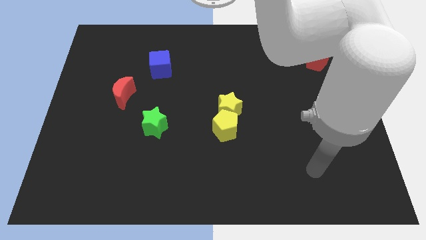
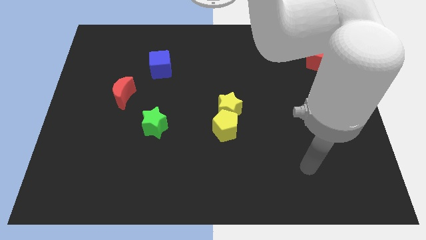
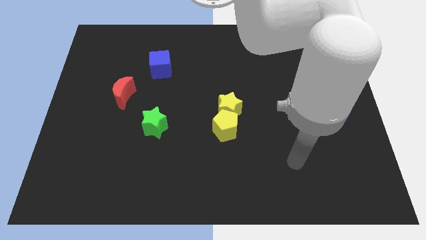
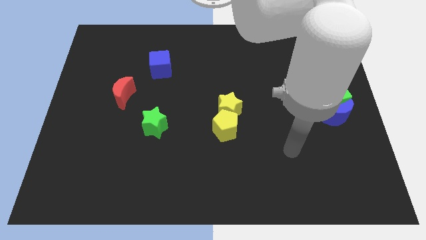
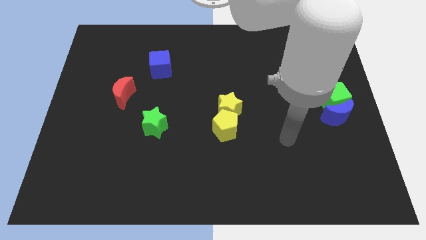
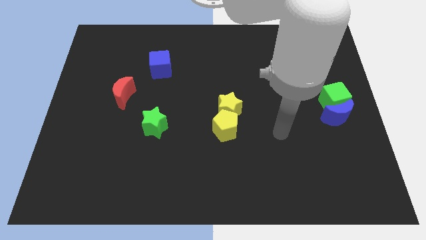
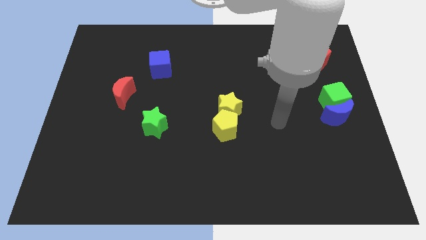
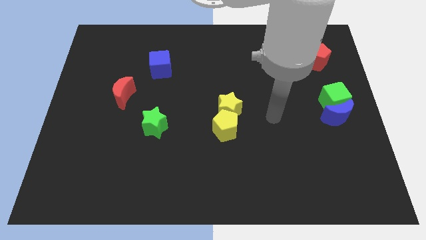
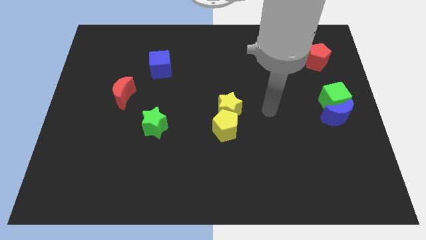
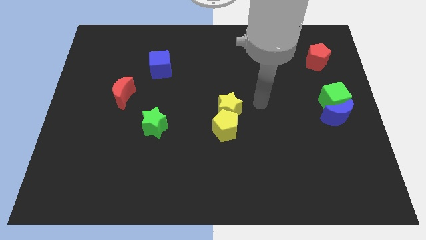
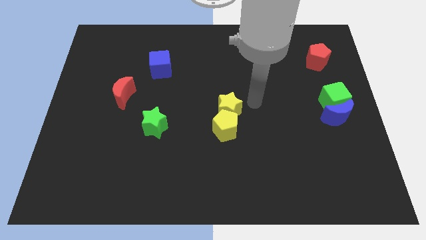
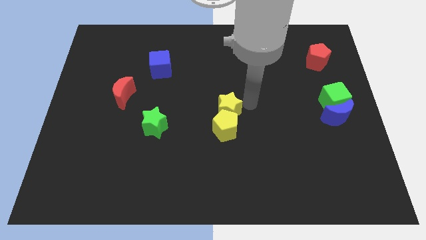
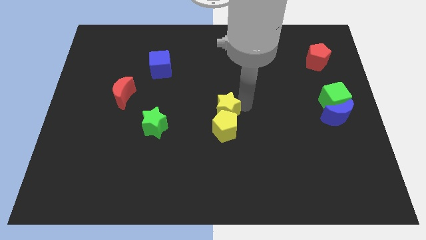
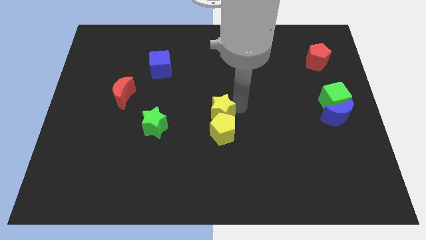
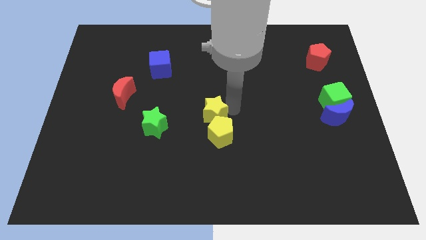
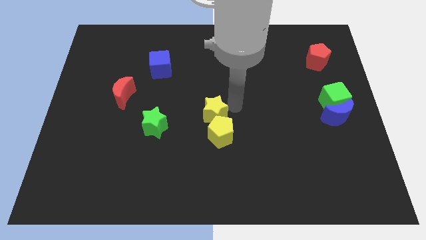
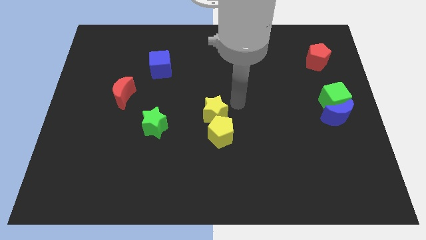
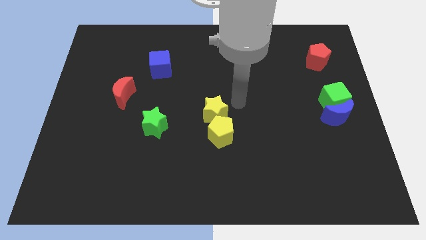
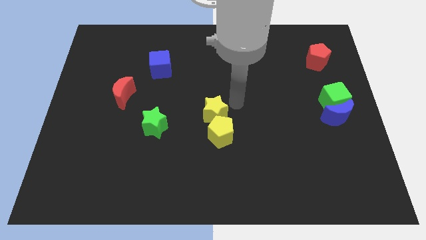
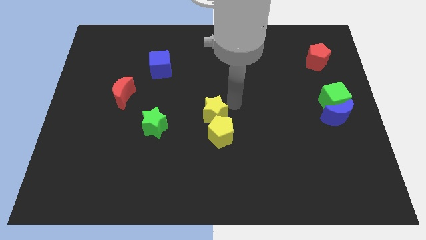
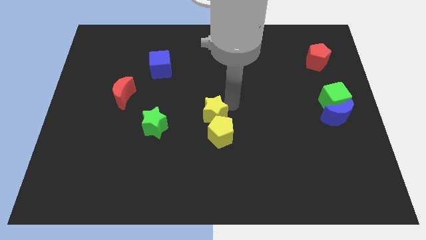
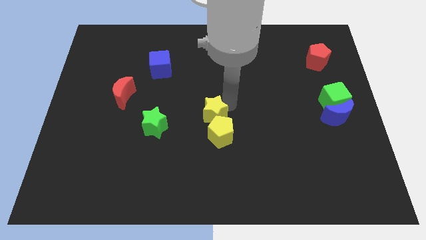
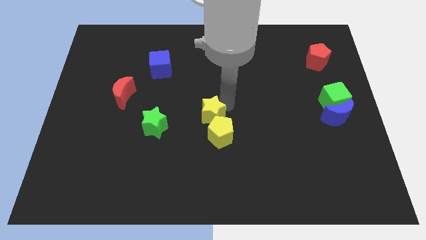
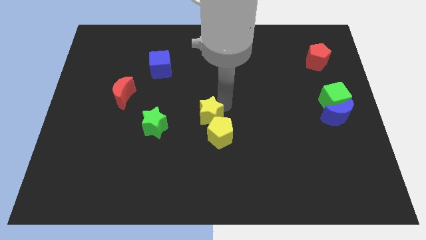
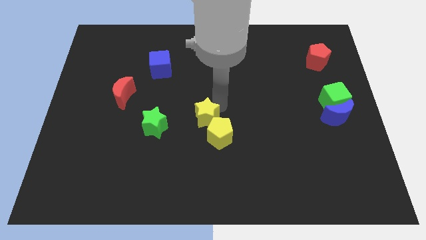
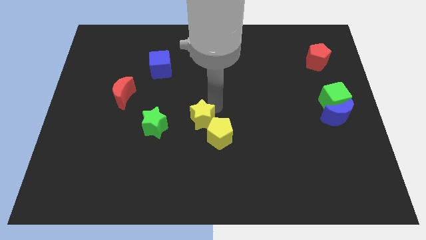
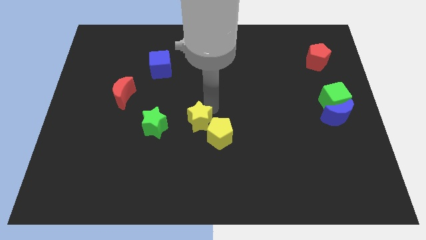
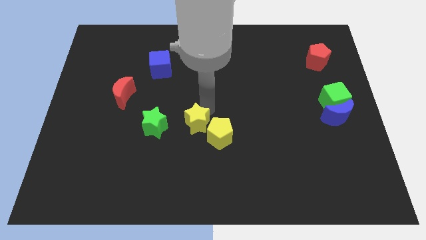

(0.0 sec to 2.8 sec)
slide the yellow star down and then to the left a little bit

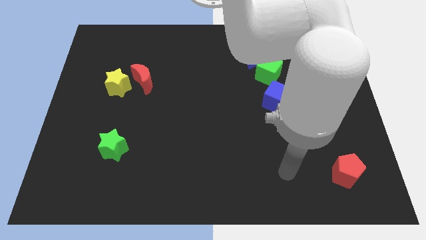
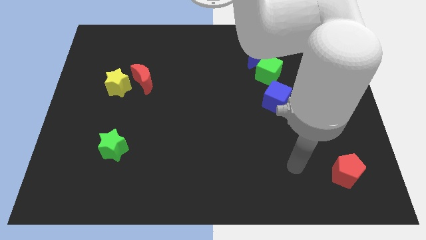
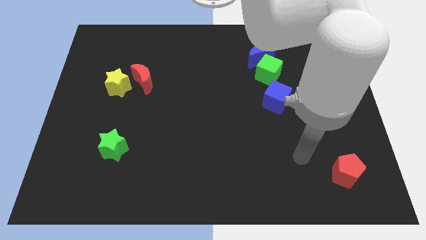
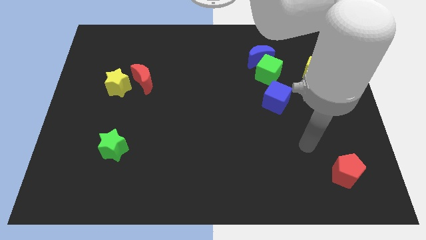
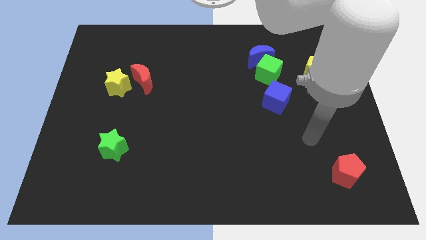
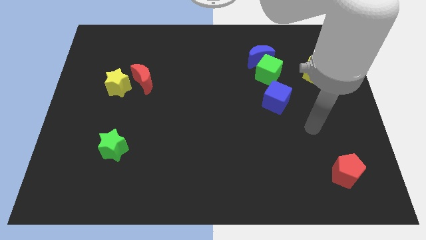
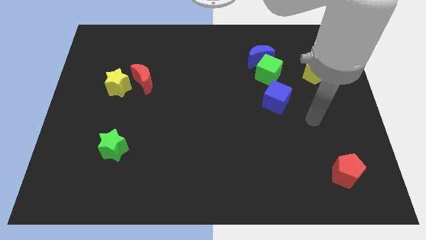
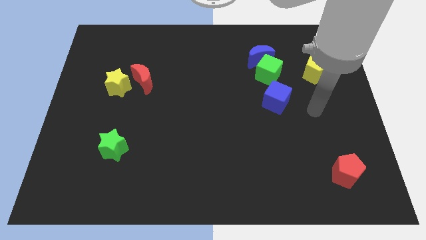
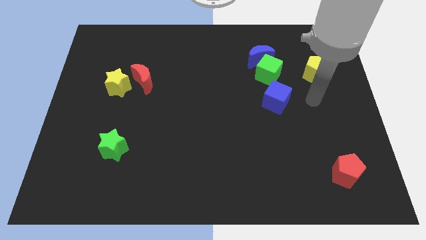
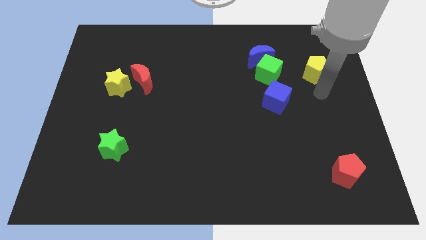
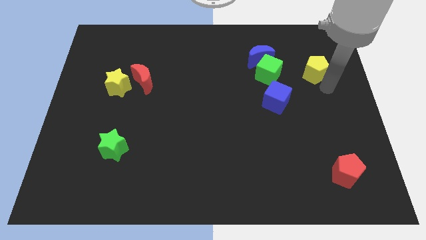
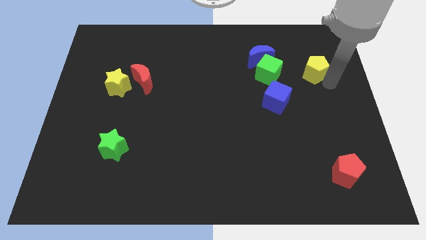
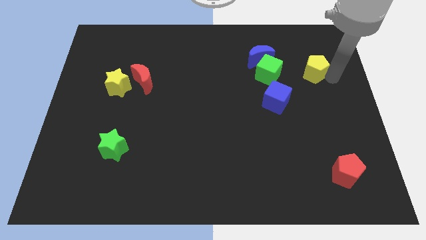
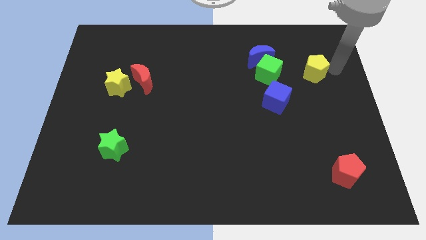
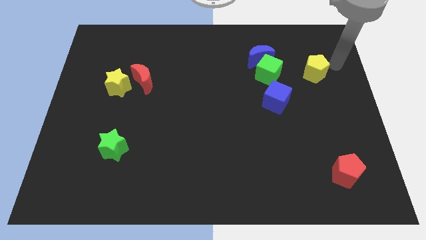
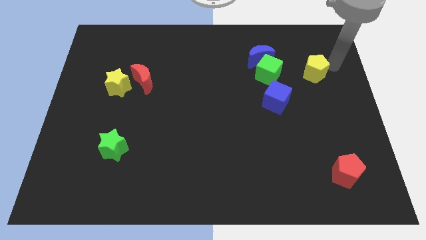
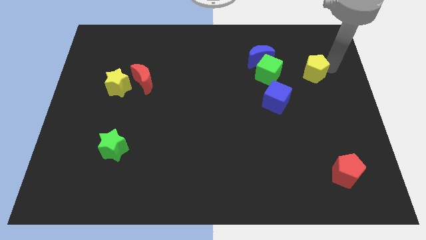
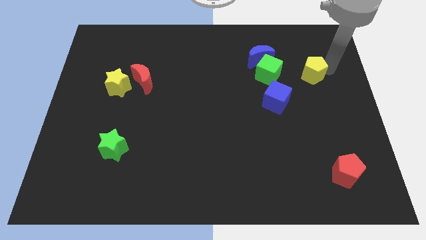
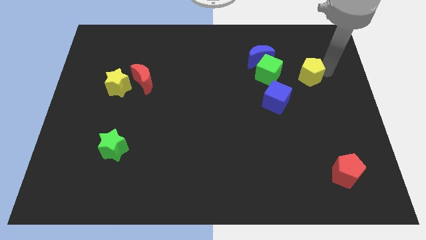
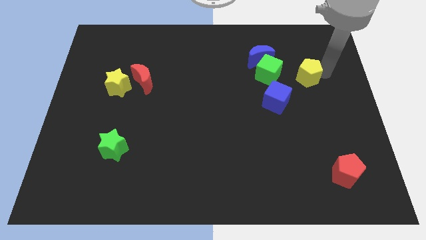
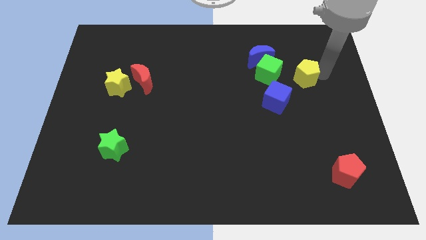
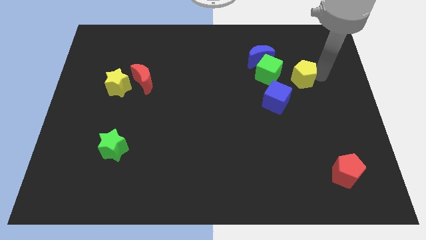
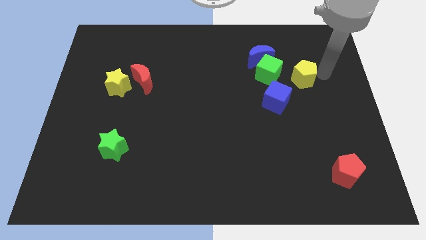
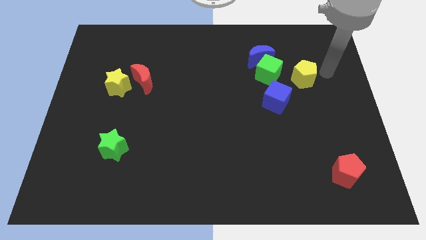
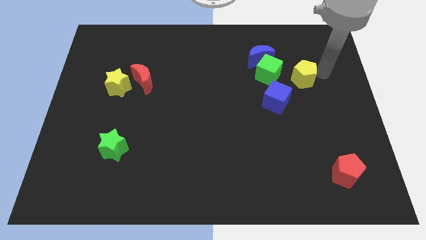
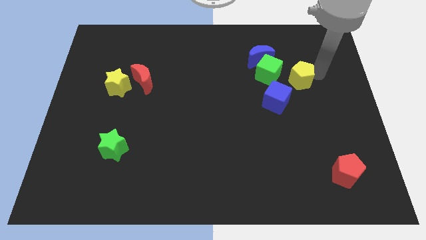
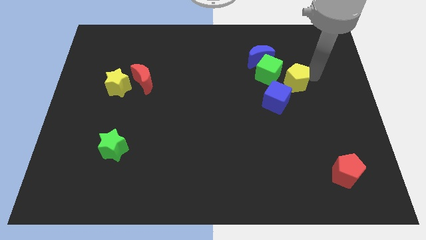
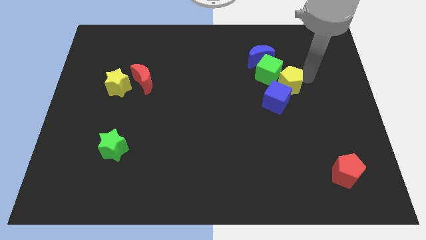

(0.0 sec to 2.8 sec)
move the yellow pentagon somewhat diagonally down and to the left

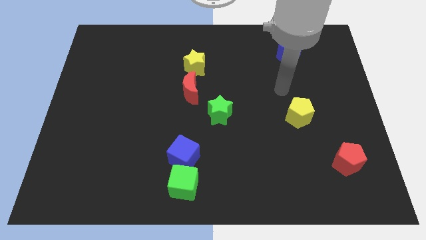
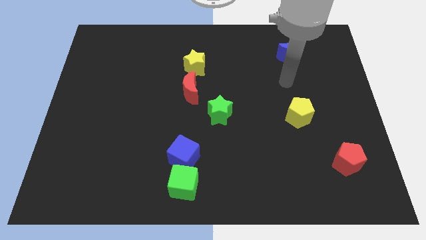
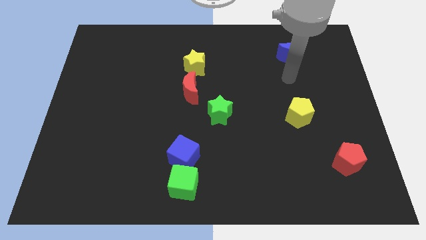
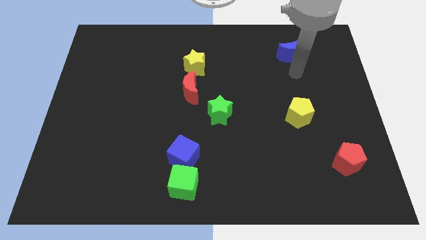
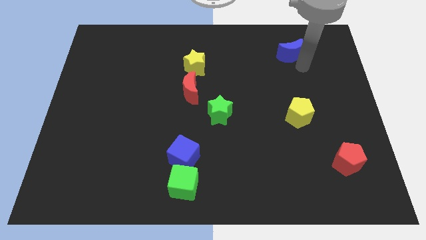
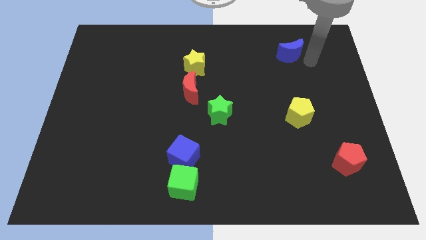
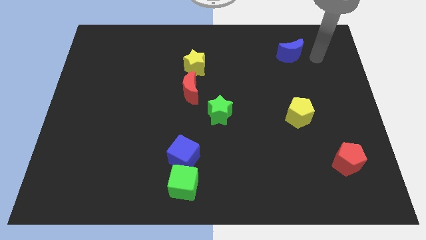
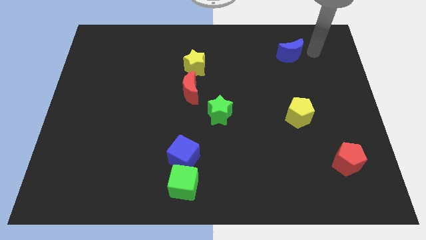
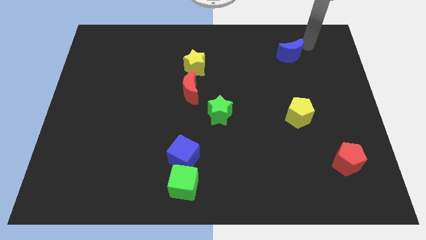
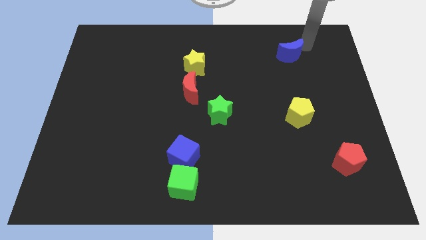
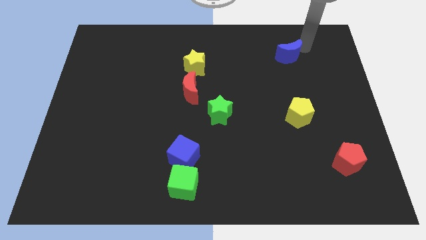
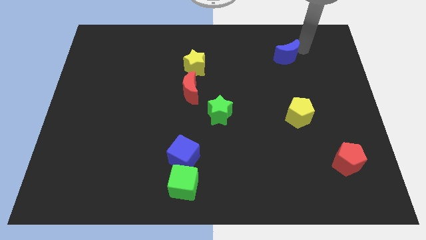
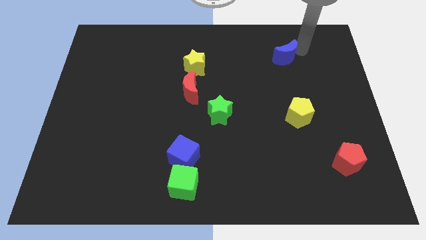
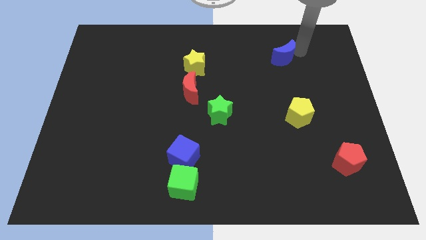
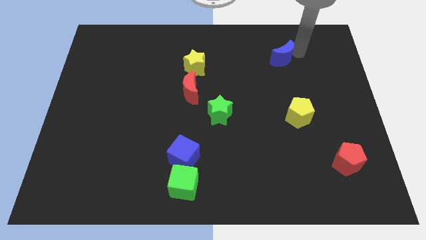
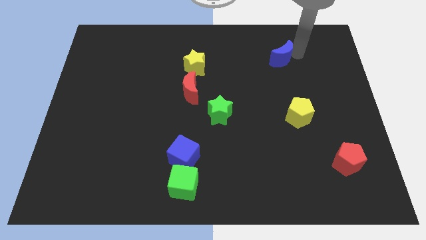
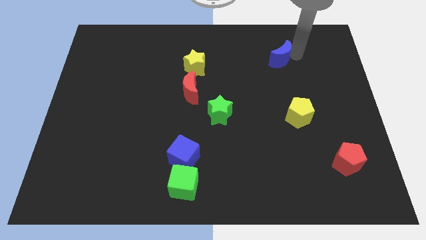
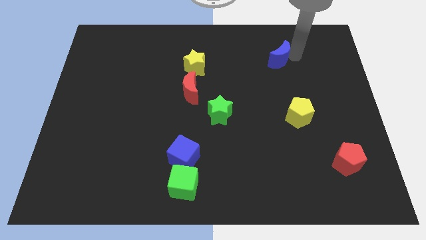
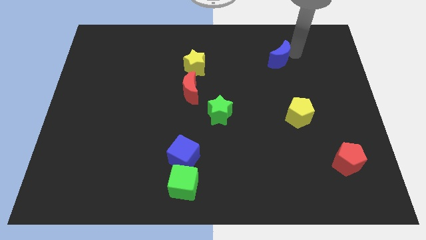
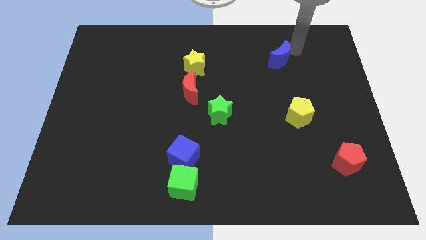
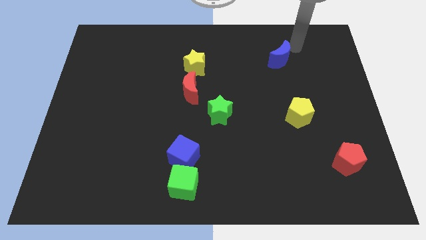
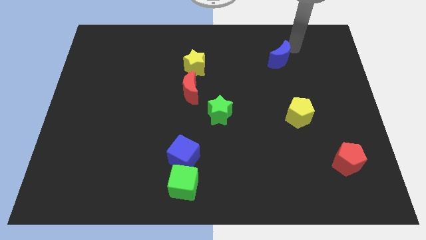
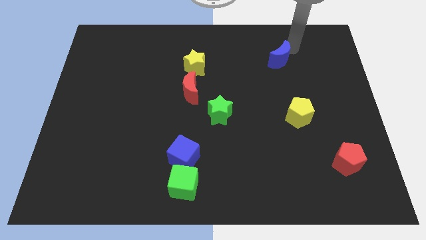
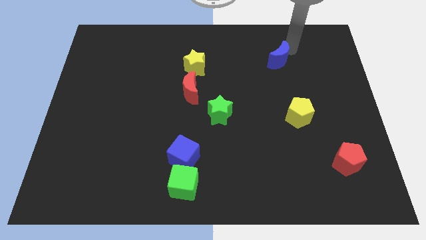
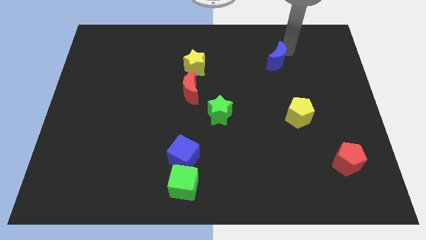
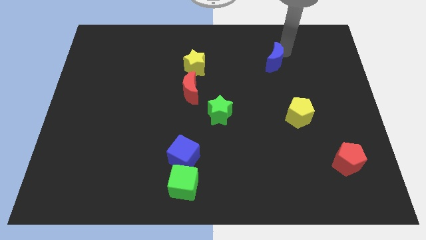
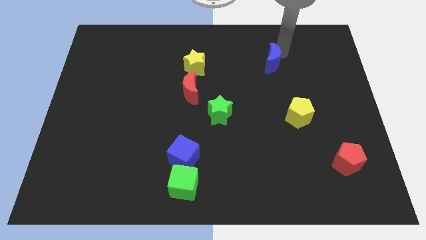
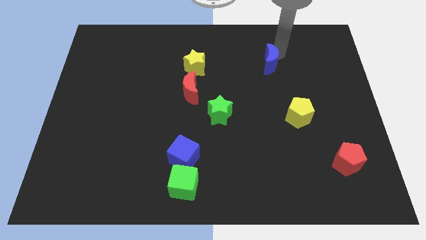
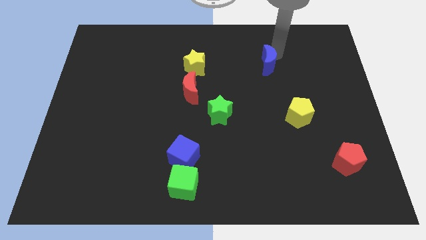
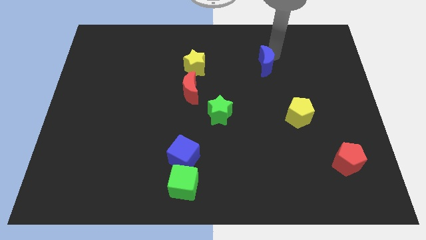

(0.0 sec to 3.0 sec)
slightly move the blue moon diagonally down and to the left
